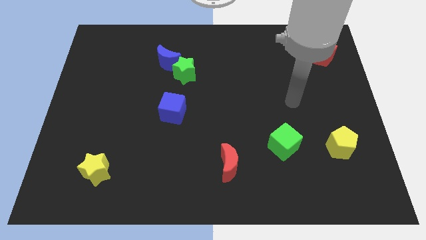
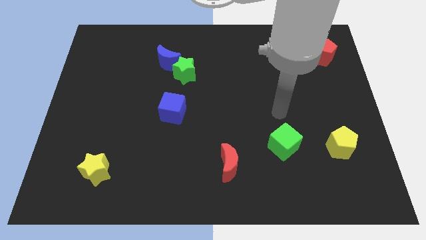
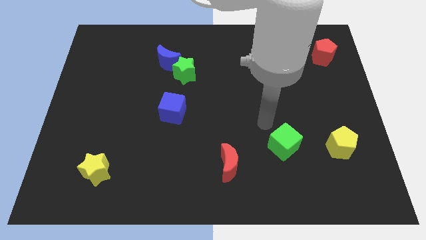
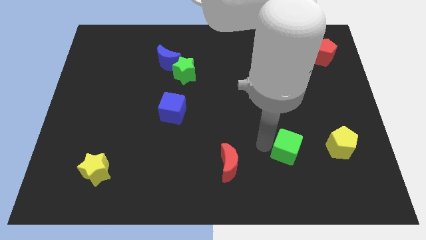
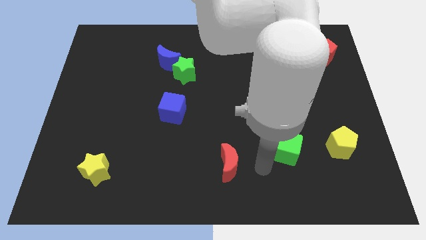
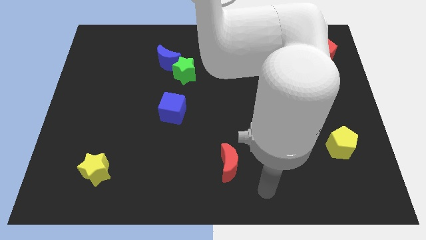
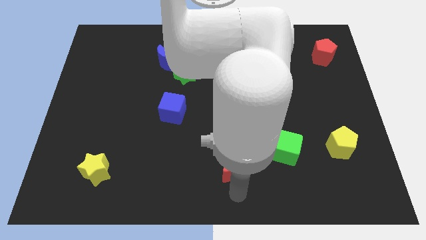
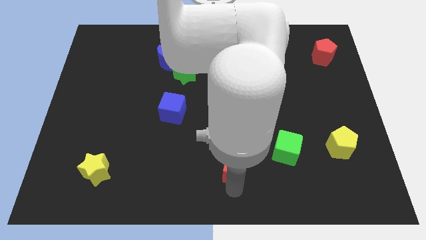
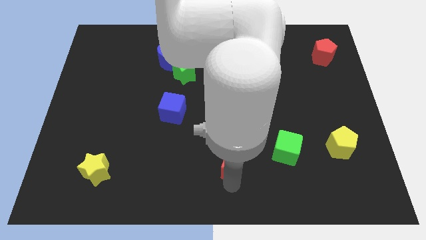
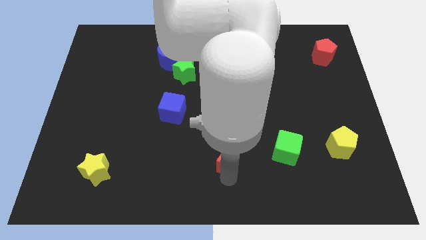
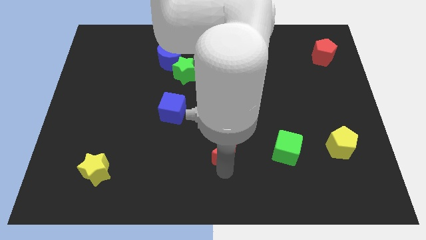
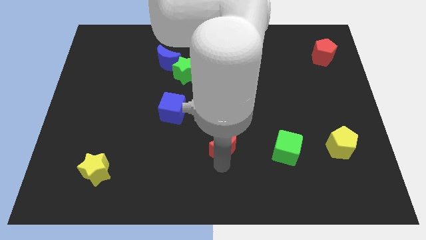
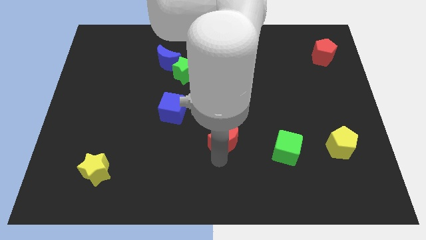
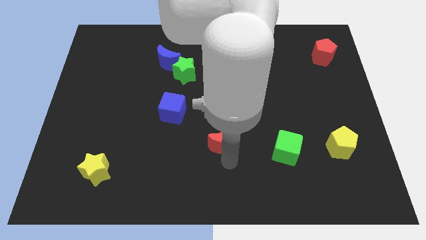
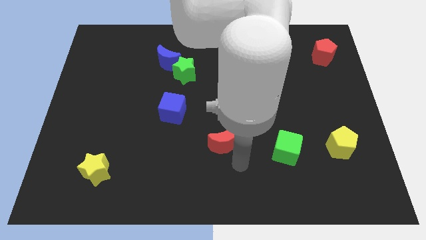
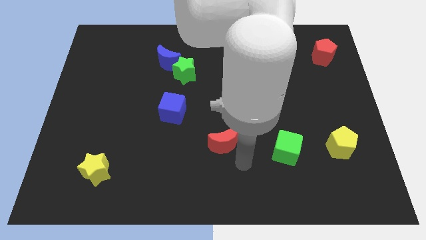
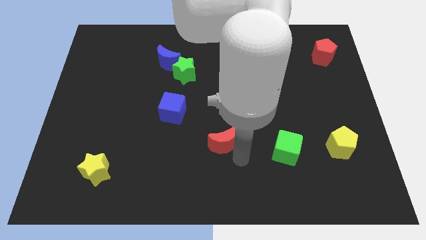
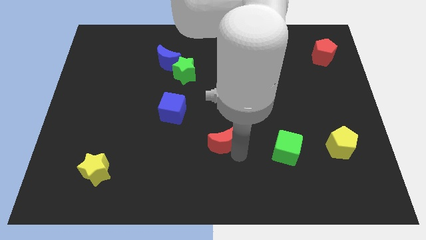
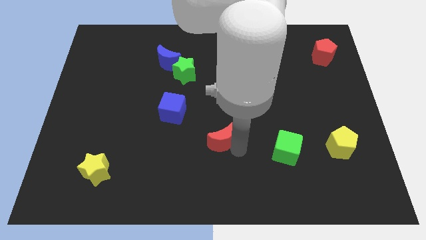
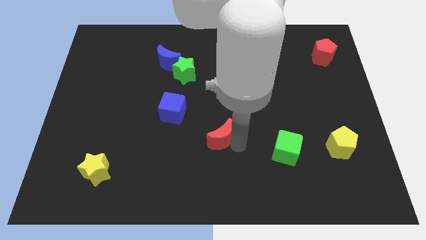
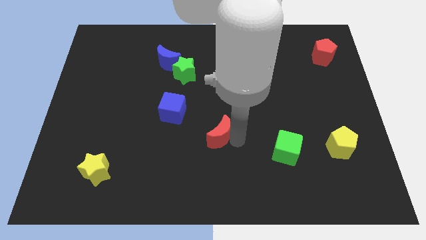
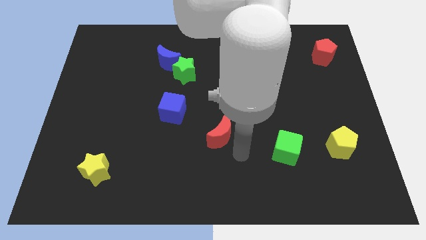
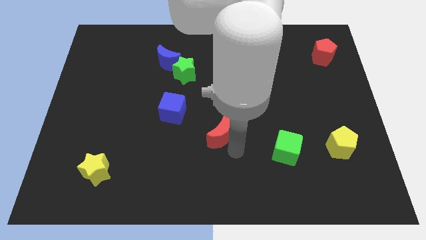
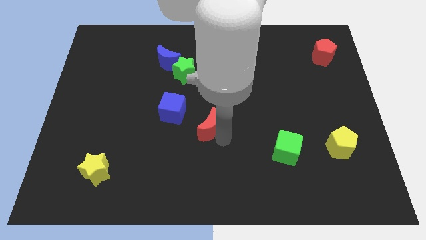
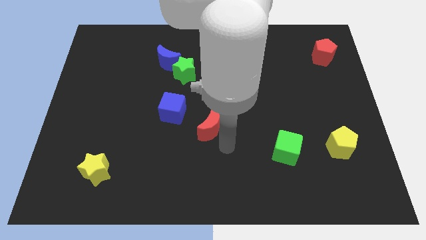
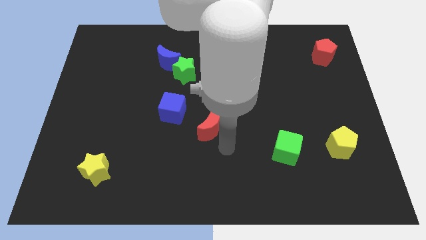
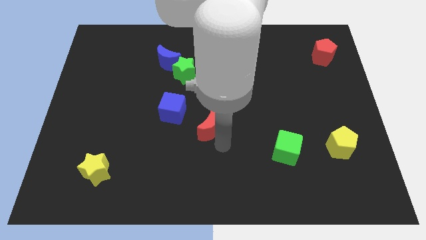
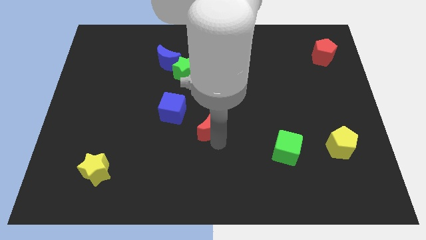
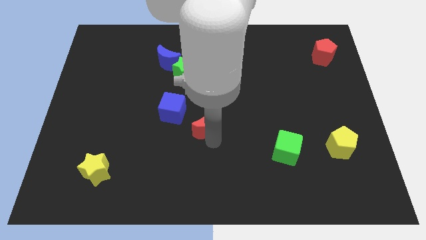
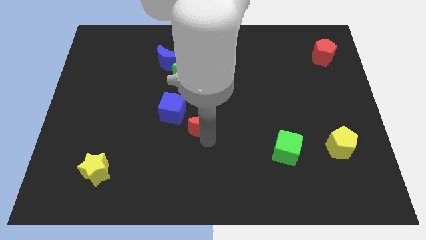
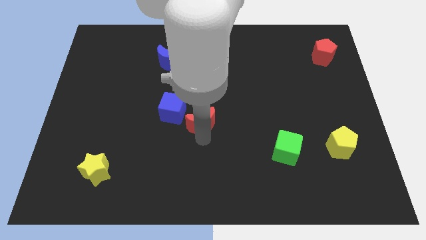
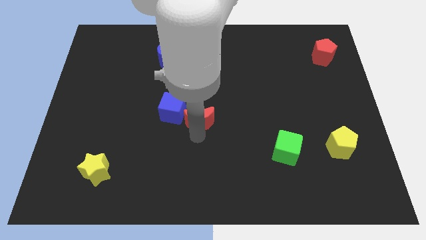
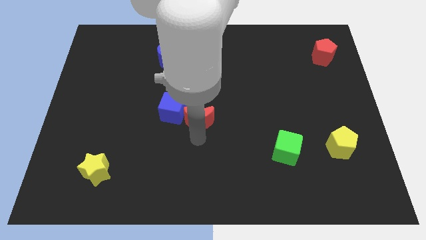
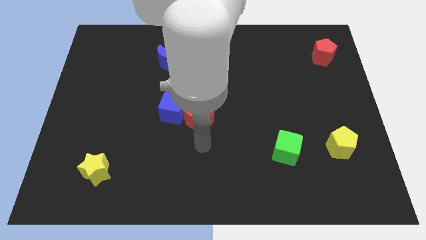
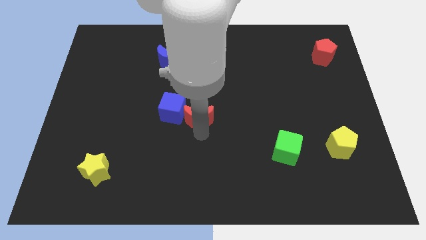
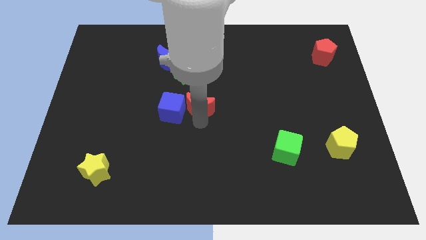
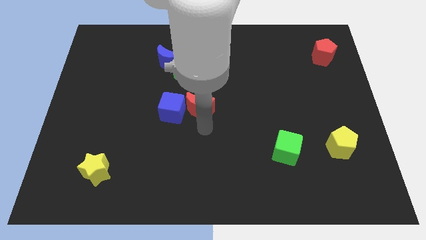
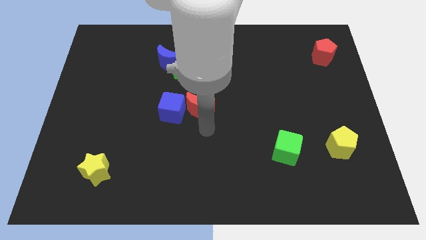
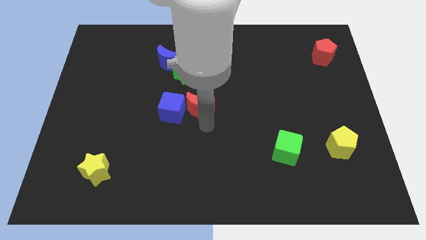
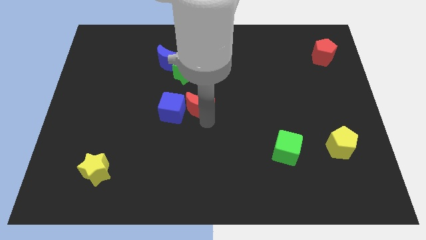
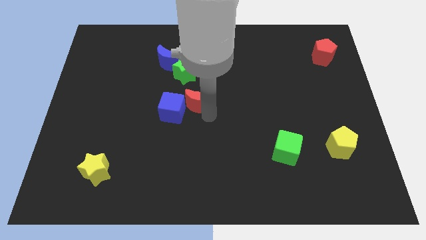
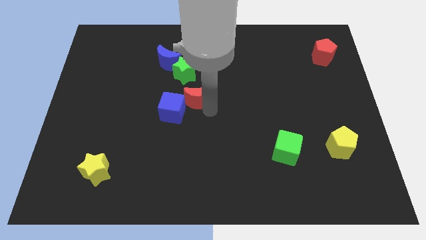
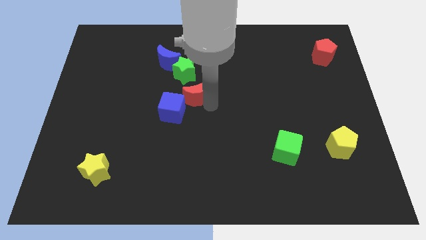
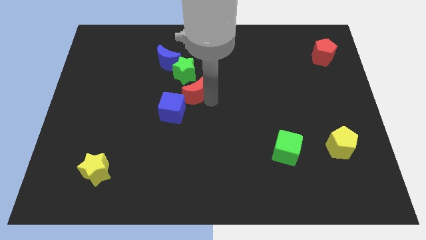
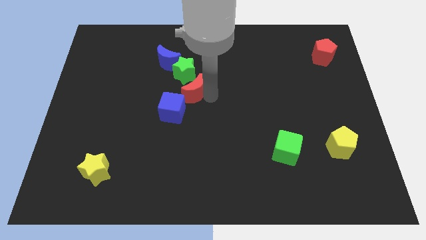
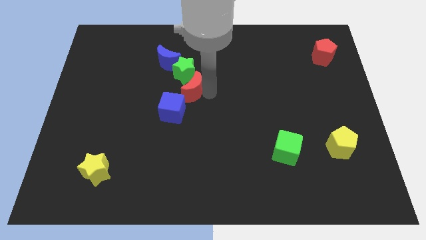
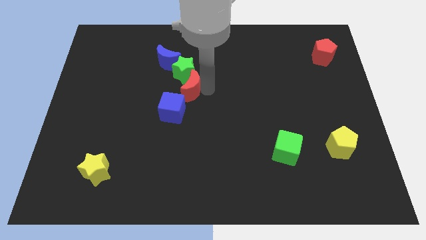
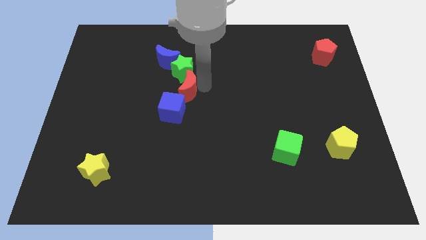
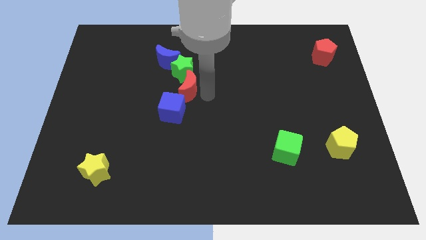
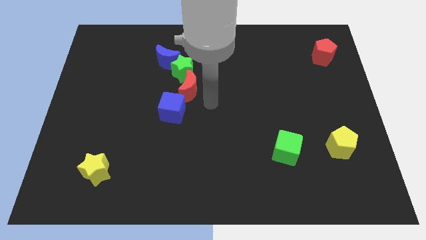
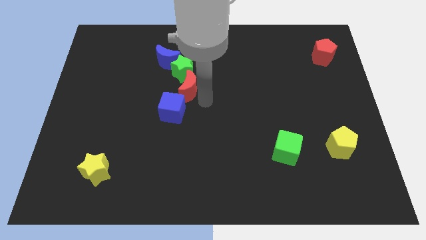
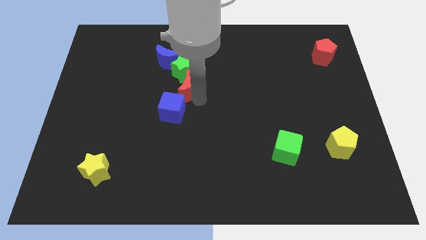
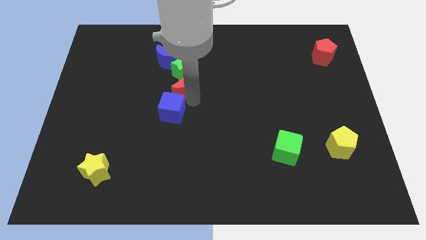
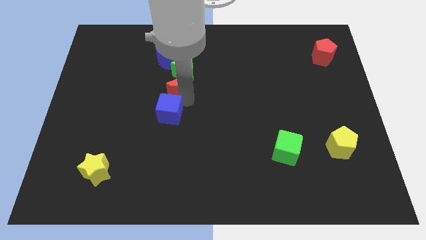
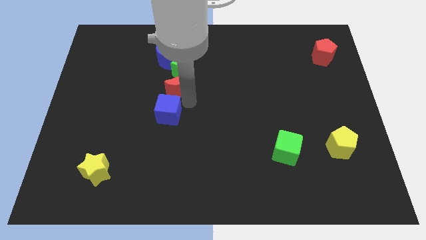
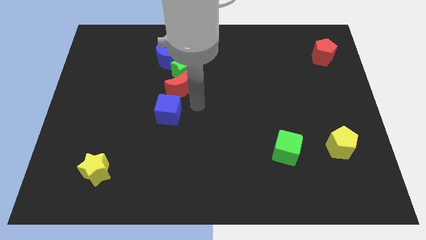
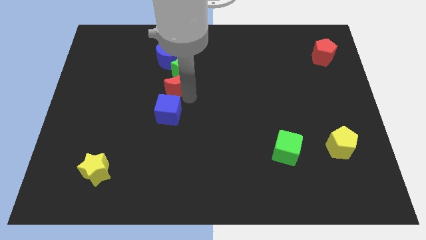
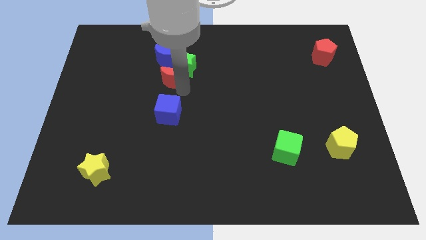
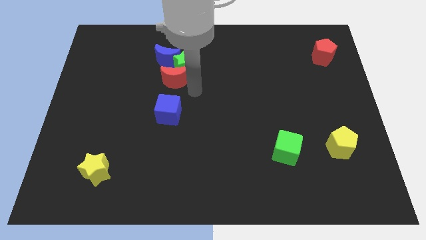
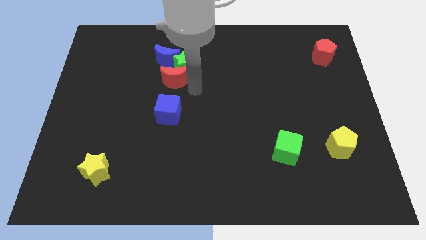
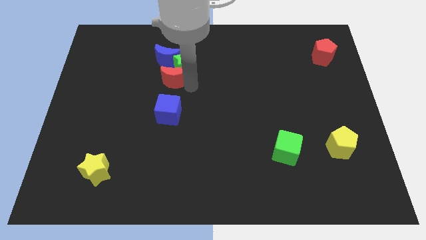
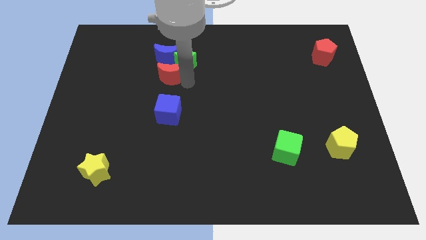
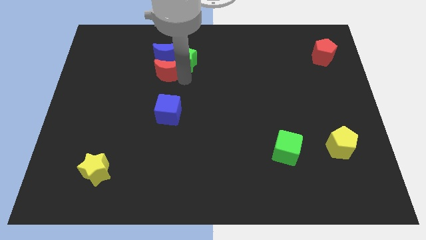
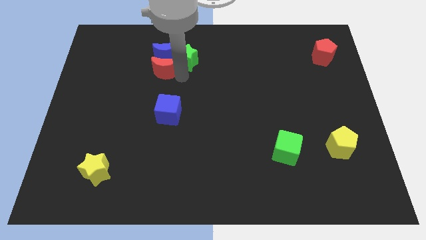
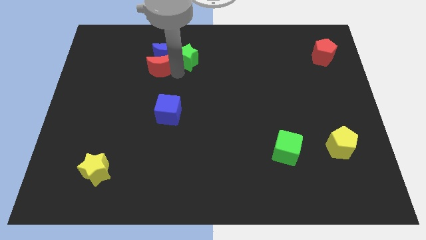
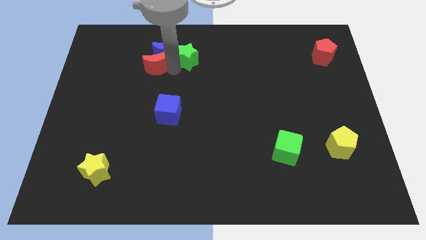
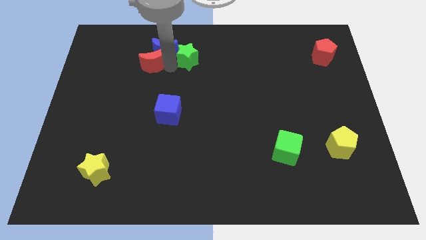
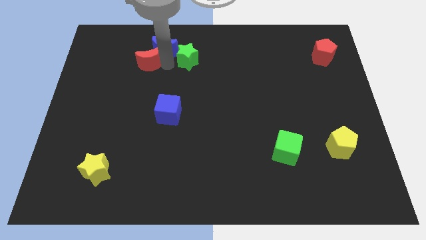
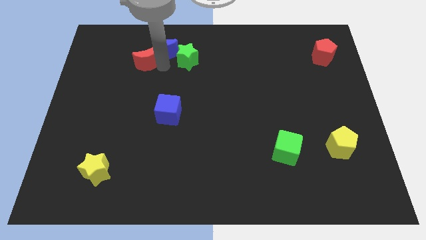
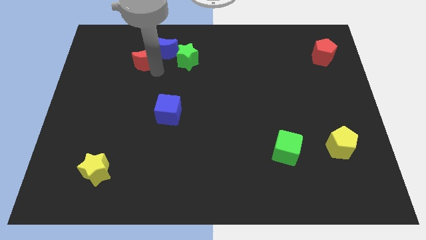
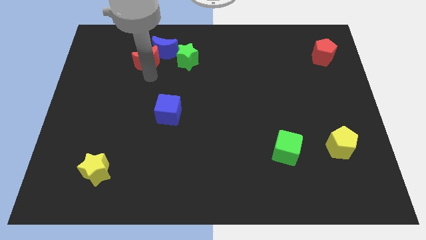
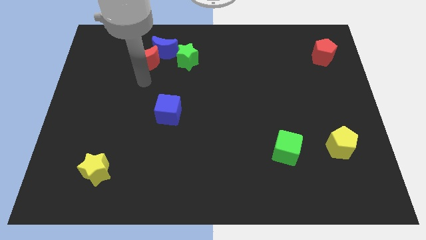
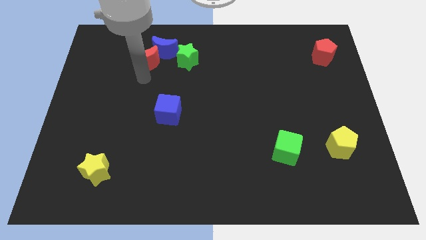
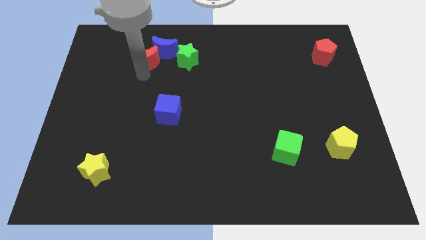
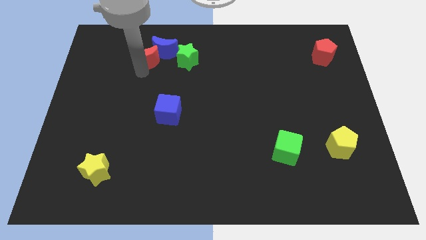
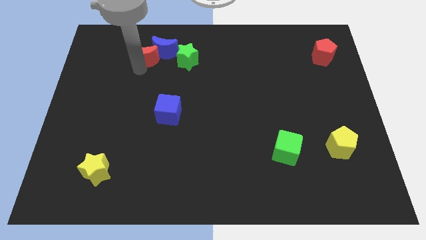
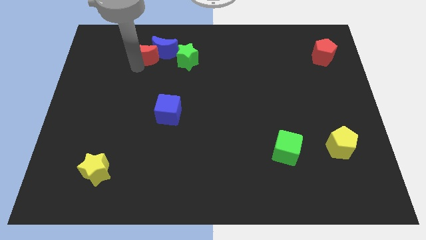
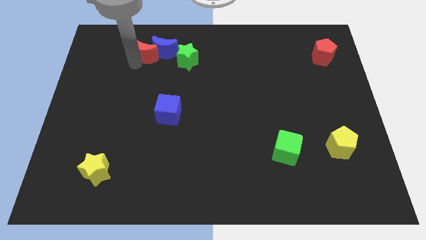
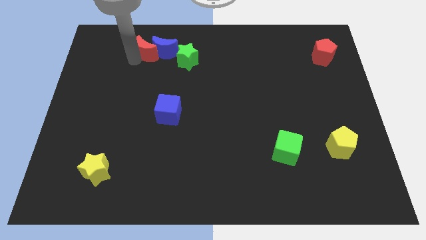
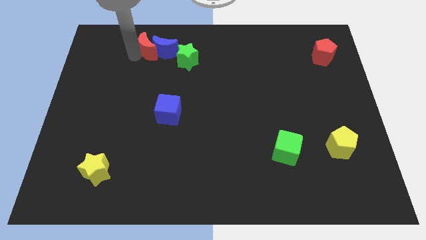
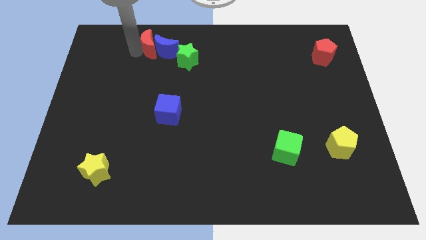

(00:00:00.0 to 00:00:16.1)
slide the red moon to the top left side of the green star
